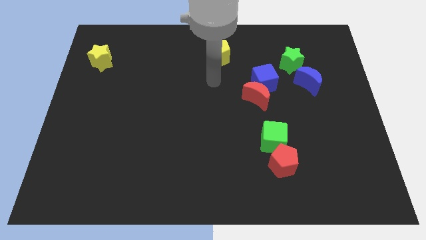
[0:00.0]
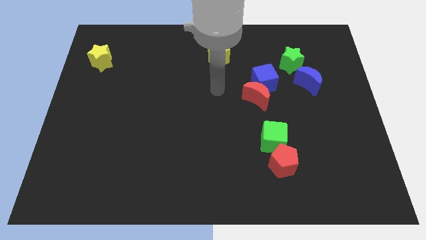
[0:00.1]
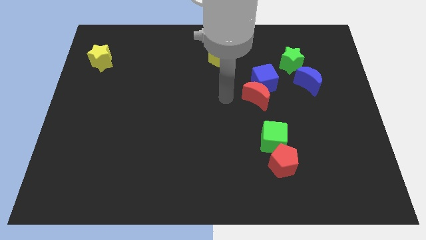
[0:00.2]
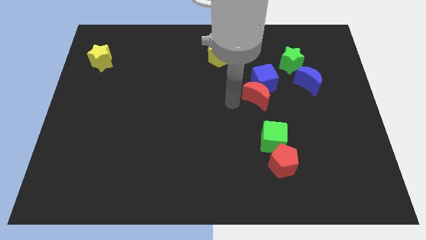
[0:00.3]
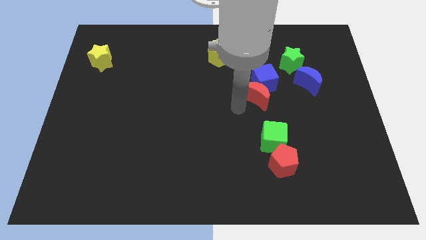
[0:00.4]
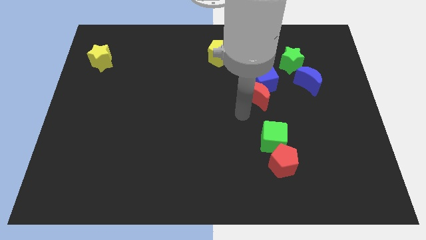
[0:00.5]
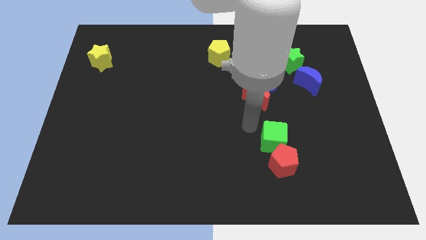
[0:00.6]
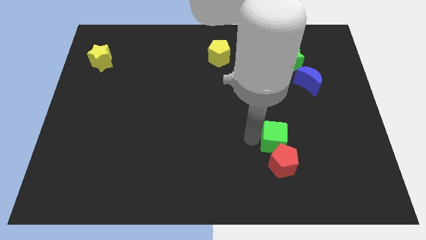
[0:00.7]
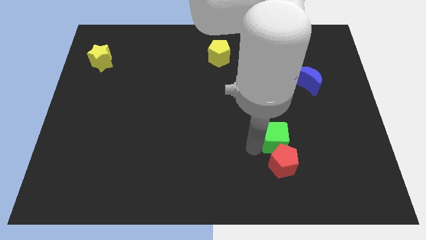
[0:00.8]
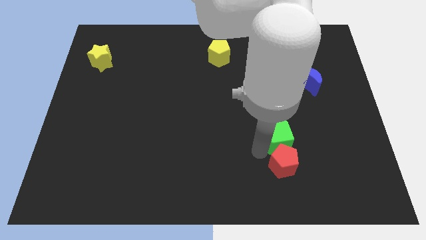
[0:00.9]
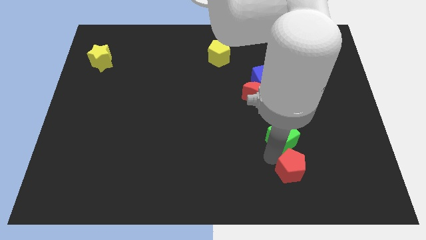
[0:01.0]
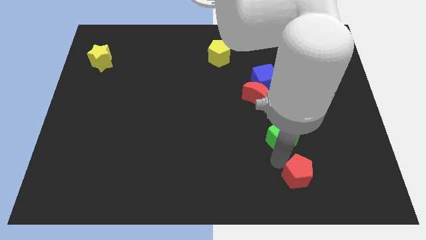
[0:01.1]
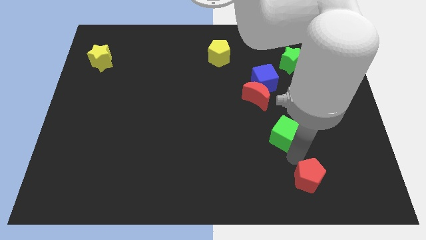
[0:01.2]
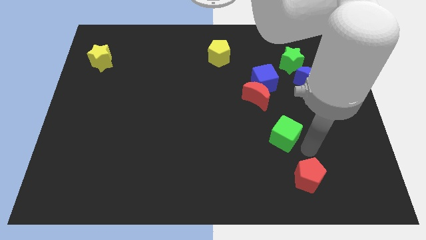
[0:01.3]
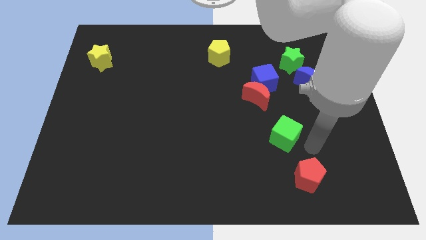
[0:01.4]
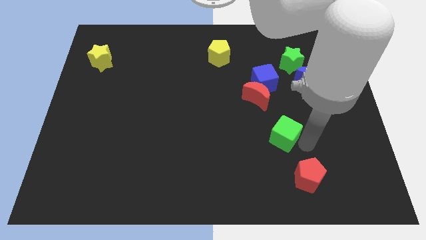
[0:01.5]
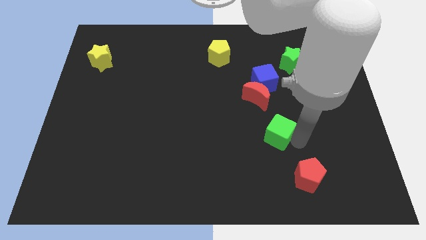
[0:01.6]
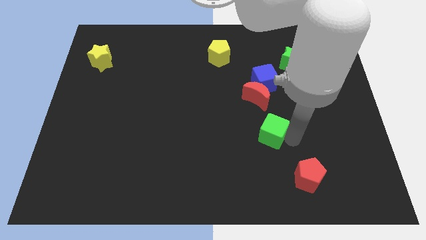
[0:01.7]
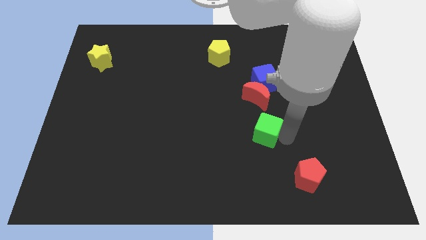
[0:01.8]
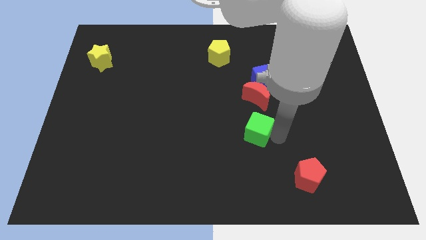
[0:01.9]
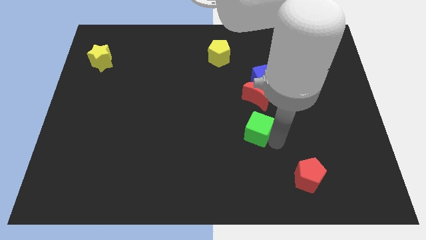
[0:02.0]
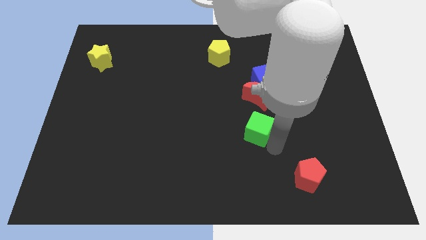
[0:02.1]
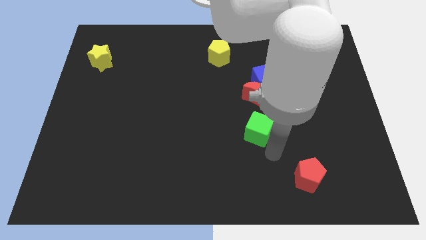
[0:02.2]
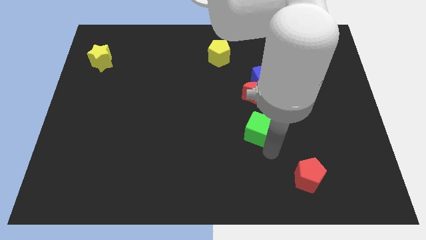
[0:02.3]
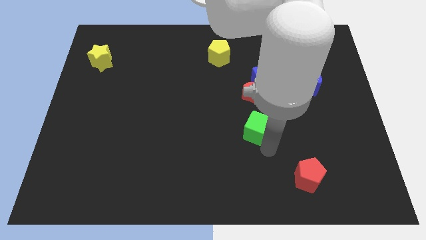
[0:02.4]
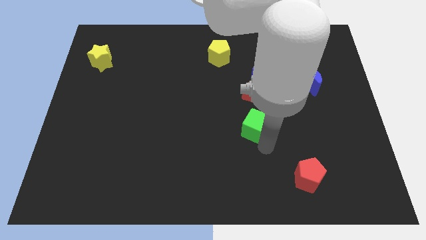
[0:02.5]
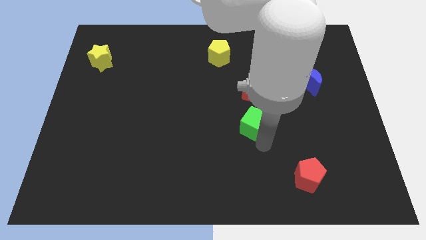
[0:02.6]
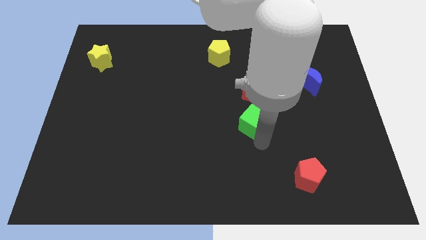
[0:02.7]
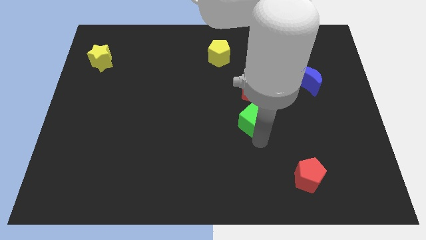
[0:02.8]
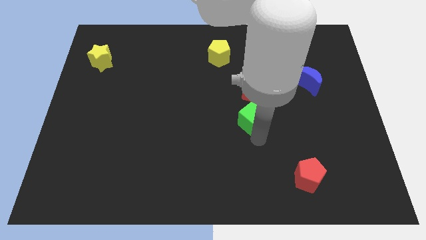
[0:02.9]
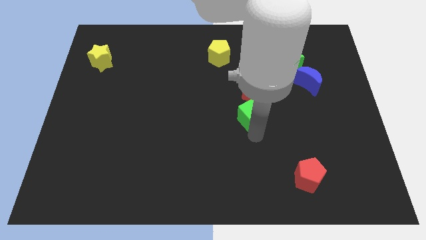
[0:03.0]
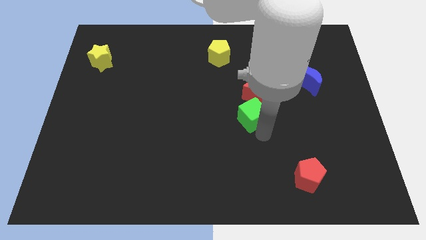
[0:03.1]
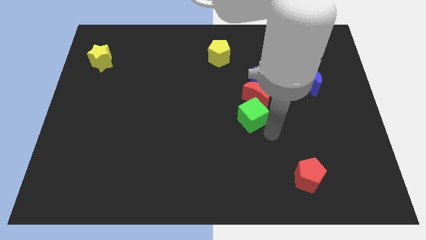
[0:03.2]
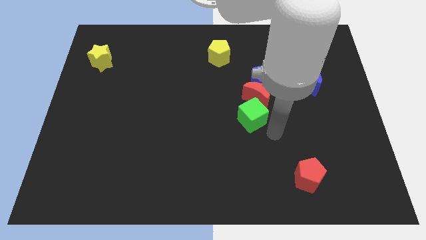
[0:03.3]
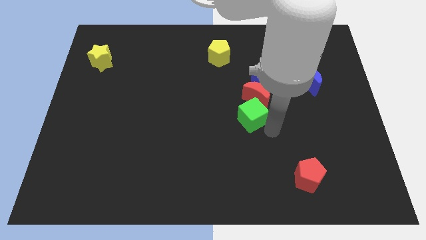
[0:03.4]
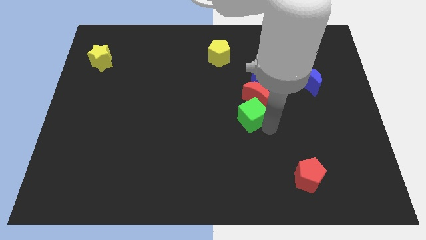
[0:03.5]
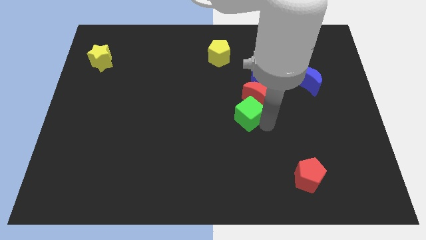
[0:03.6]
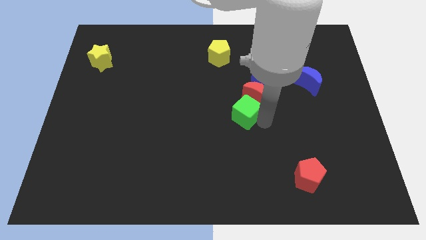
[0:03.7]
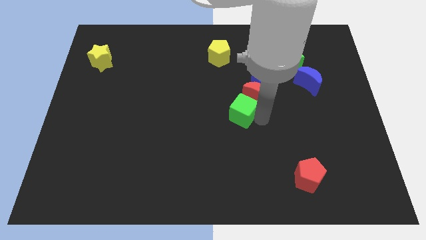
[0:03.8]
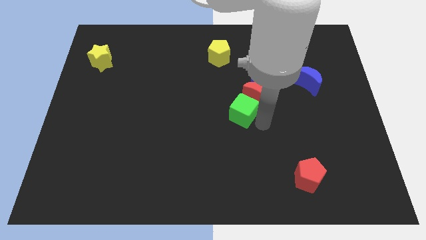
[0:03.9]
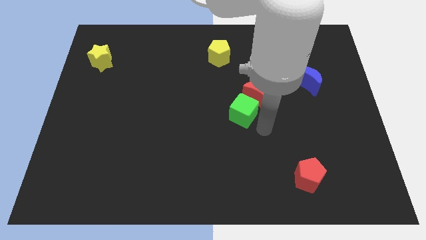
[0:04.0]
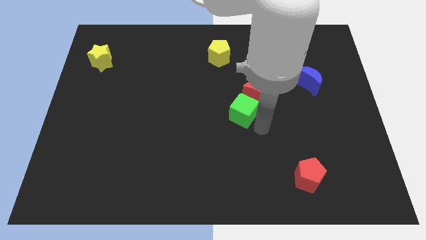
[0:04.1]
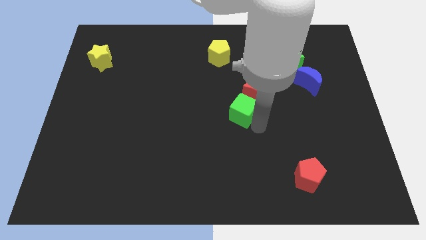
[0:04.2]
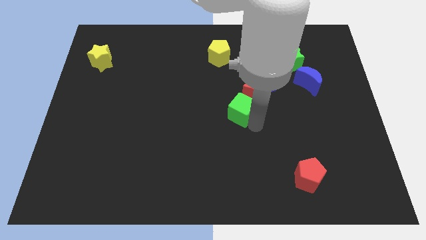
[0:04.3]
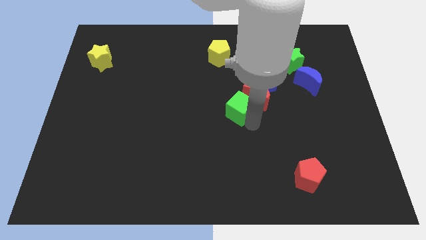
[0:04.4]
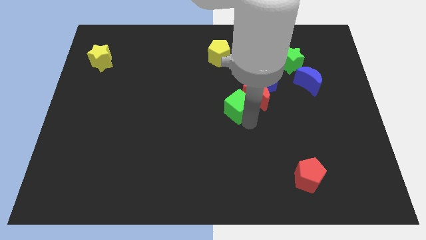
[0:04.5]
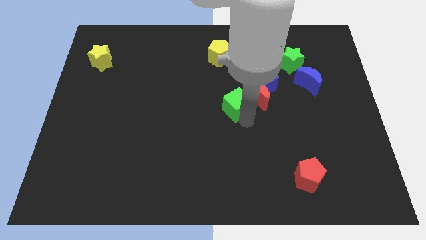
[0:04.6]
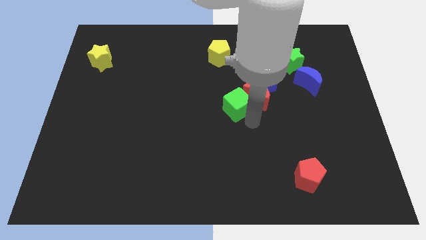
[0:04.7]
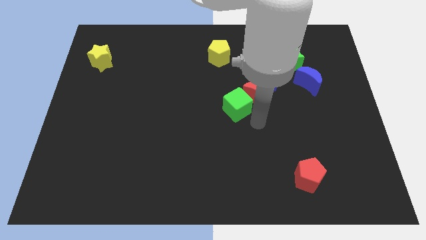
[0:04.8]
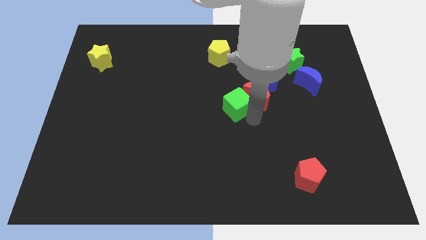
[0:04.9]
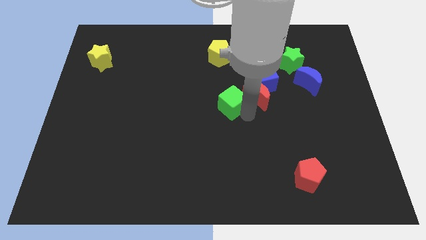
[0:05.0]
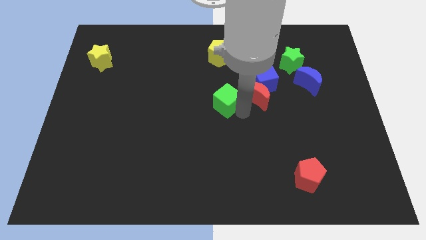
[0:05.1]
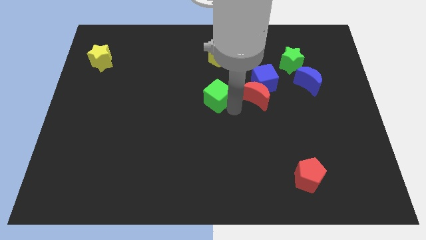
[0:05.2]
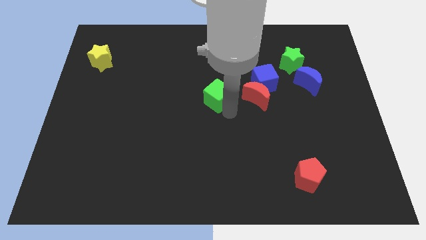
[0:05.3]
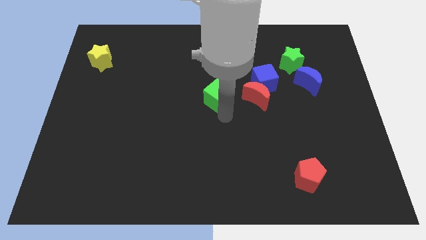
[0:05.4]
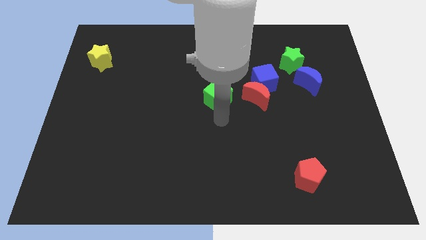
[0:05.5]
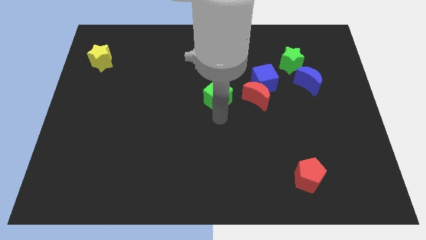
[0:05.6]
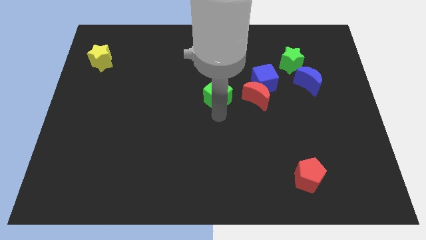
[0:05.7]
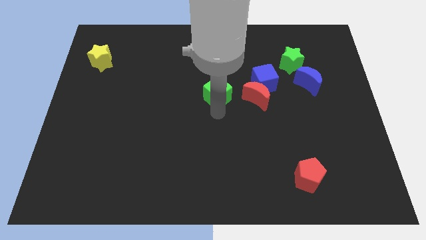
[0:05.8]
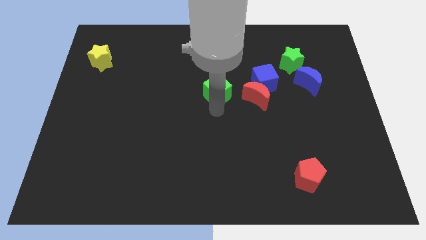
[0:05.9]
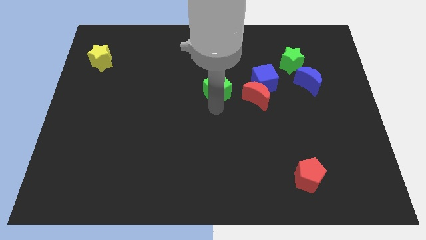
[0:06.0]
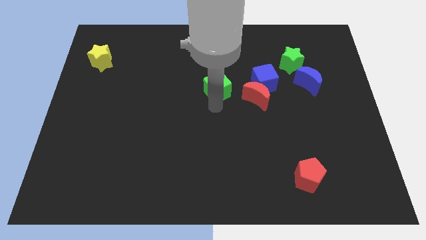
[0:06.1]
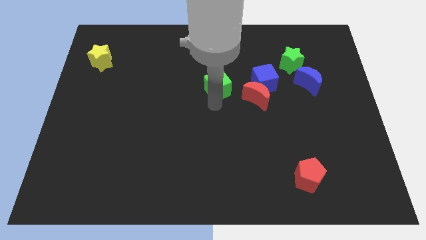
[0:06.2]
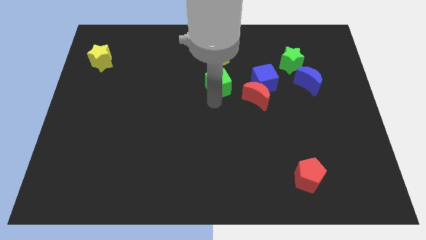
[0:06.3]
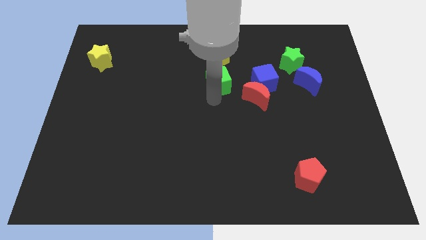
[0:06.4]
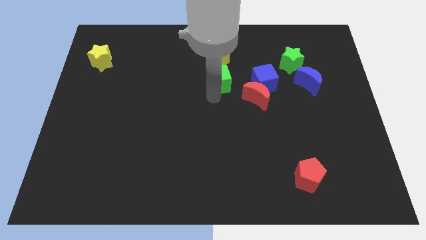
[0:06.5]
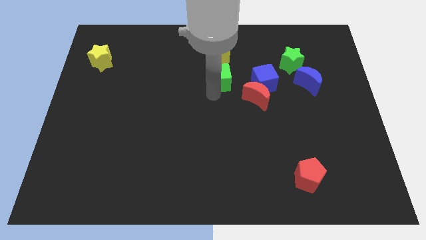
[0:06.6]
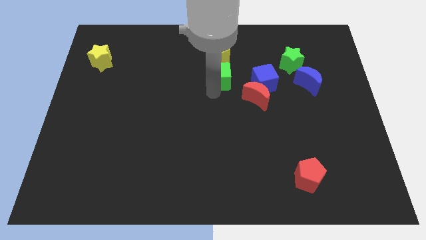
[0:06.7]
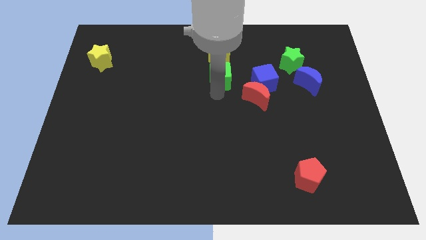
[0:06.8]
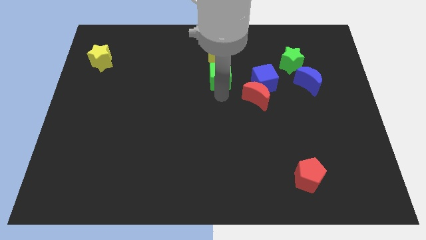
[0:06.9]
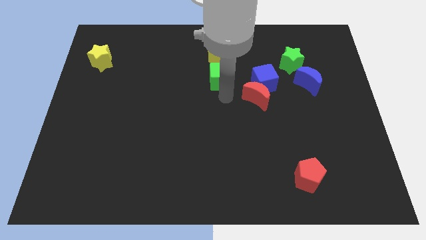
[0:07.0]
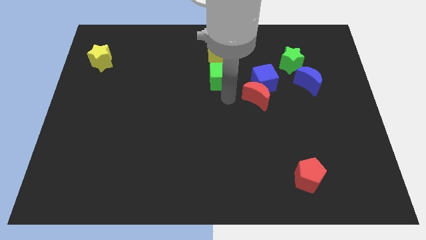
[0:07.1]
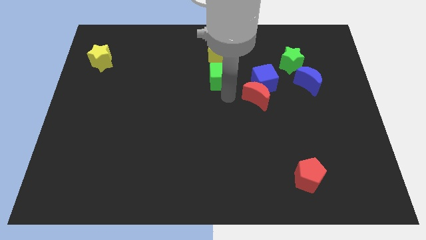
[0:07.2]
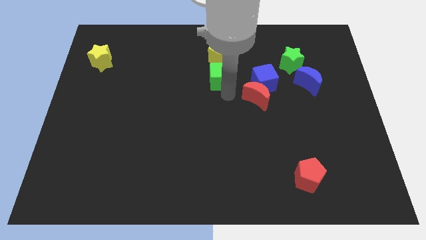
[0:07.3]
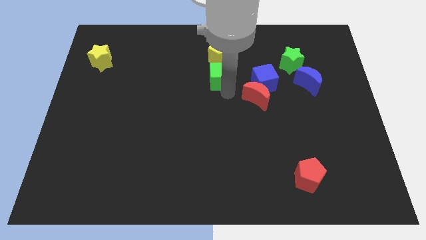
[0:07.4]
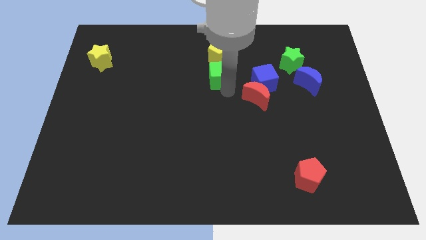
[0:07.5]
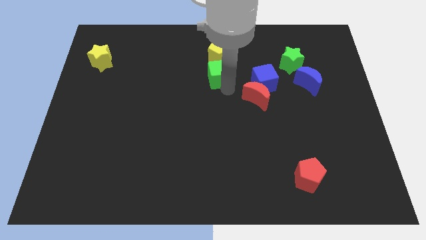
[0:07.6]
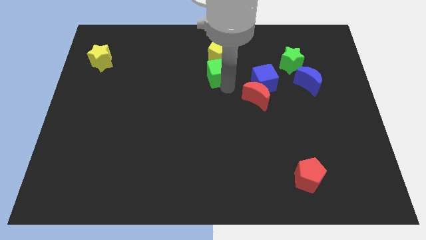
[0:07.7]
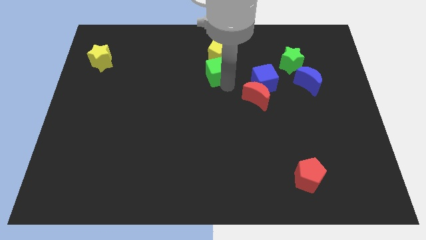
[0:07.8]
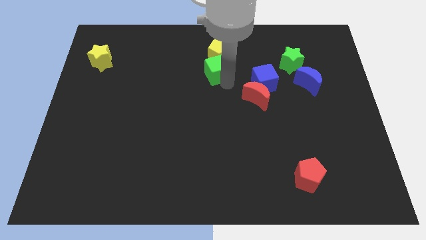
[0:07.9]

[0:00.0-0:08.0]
push the green cube next to the yellow pentagon
